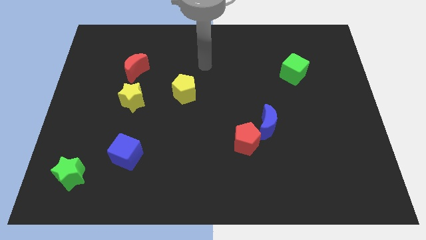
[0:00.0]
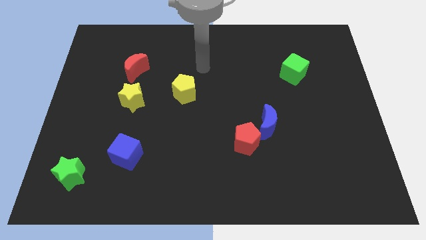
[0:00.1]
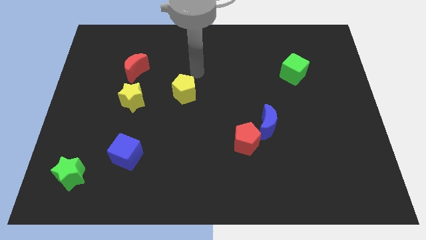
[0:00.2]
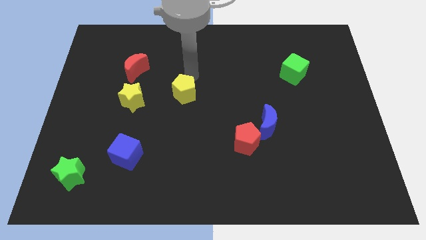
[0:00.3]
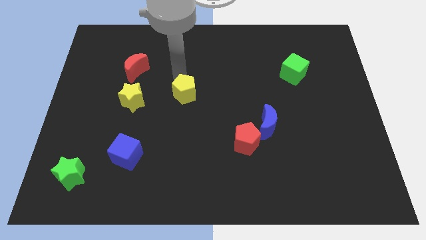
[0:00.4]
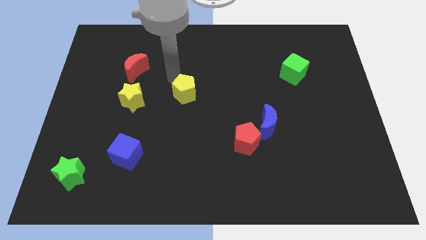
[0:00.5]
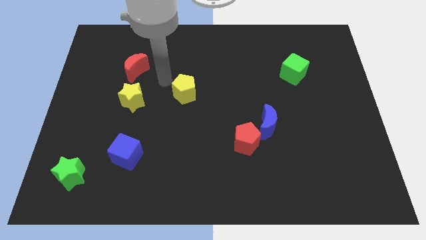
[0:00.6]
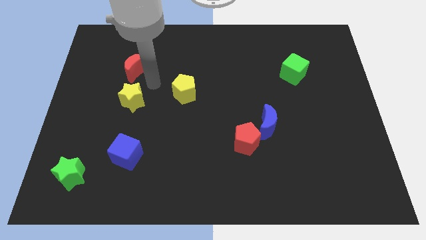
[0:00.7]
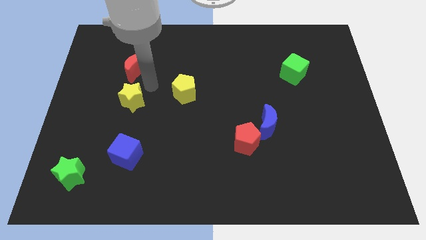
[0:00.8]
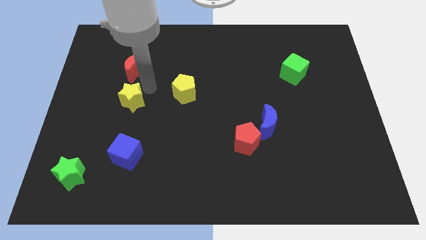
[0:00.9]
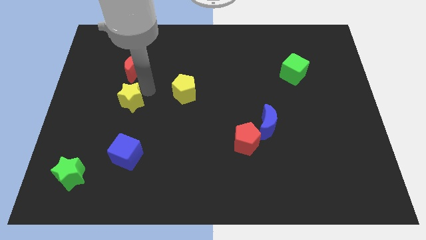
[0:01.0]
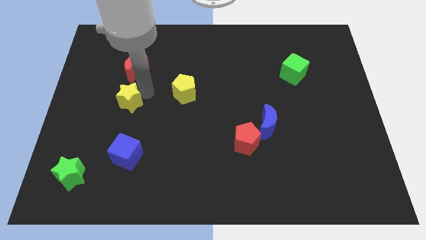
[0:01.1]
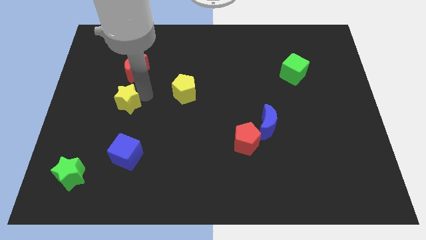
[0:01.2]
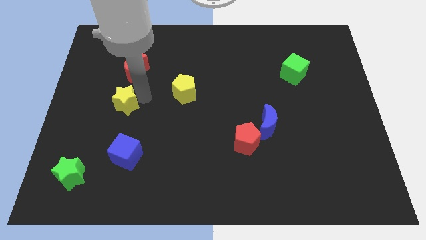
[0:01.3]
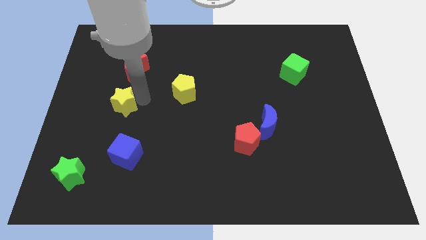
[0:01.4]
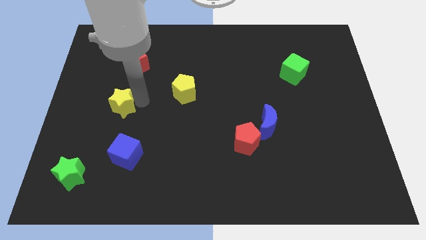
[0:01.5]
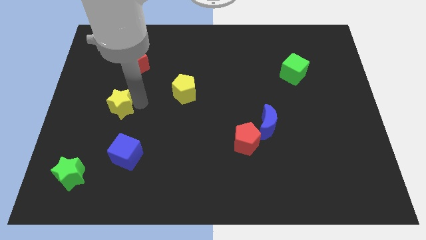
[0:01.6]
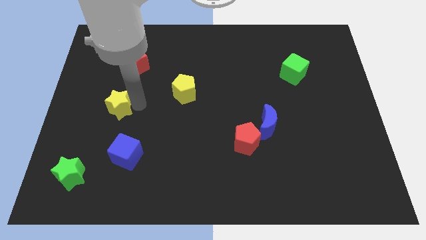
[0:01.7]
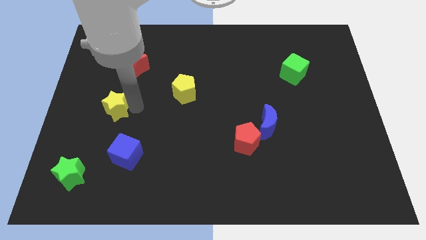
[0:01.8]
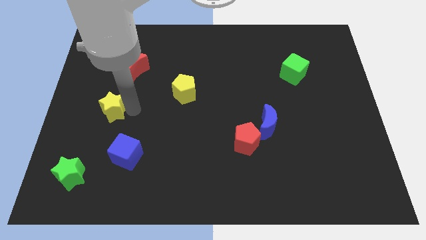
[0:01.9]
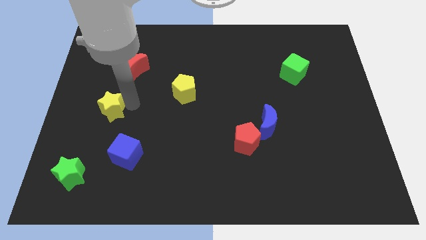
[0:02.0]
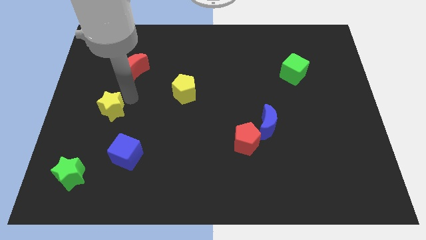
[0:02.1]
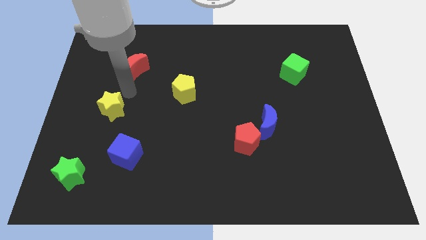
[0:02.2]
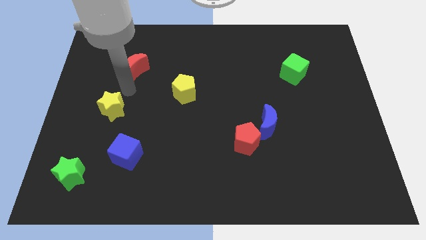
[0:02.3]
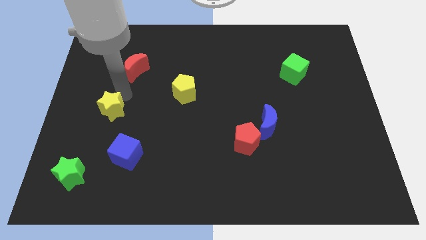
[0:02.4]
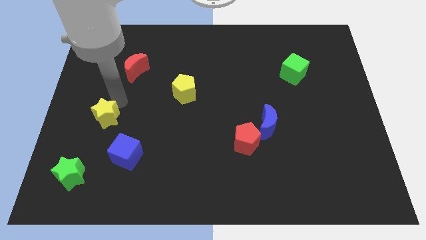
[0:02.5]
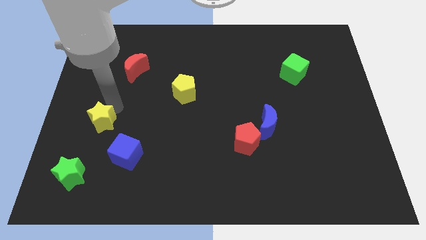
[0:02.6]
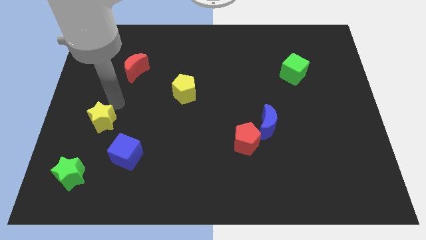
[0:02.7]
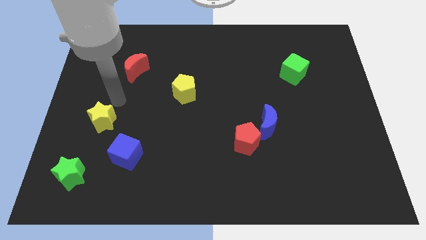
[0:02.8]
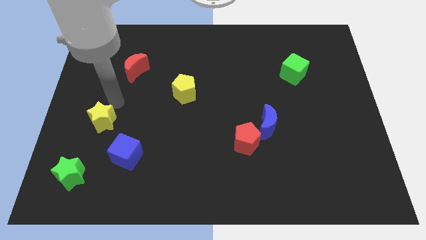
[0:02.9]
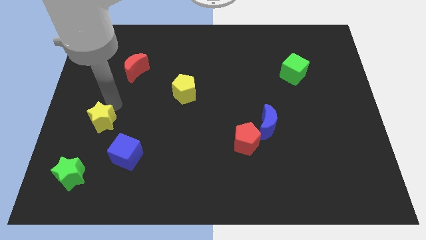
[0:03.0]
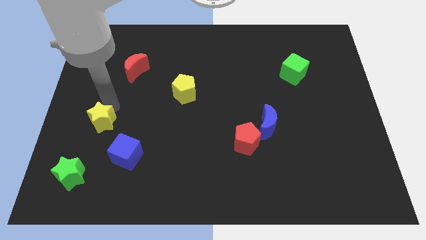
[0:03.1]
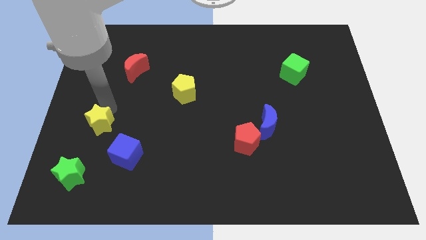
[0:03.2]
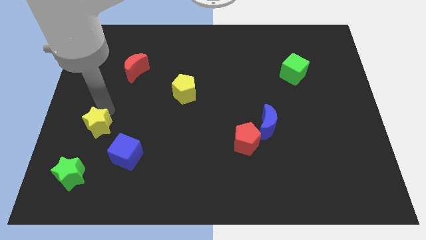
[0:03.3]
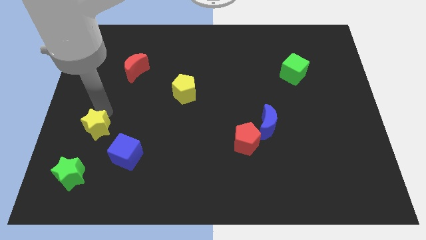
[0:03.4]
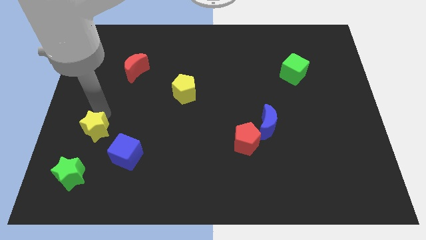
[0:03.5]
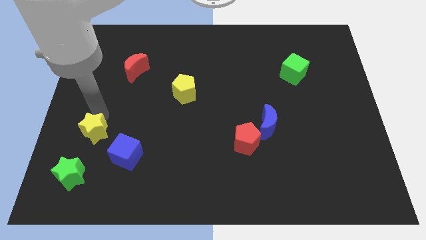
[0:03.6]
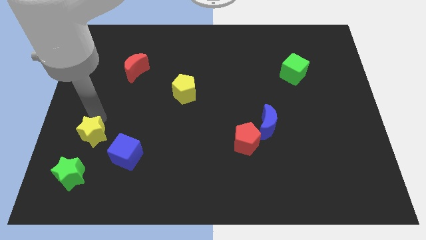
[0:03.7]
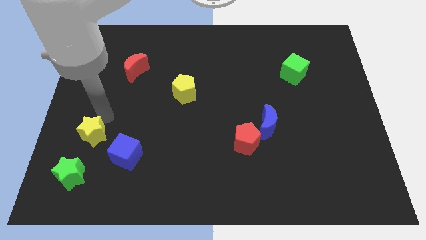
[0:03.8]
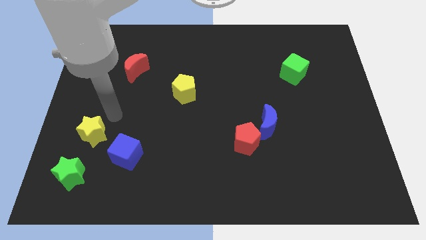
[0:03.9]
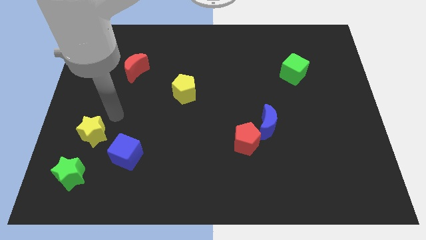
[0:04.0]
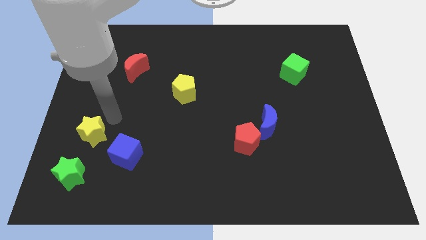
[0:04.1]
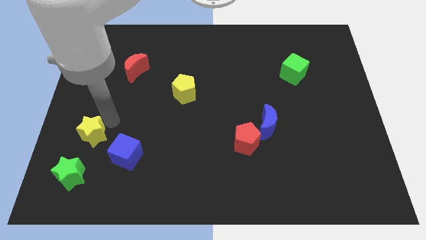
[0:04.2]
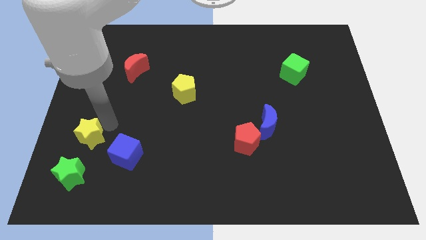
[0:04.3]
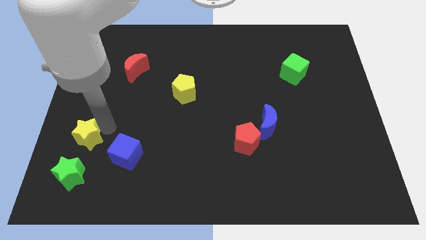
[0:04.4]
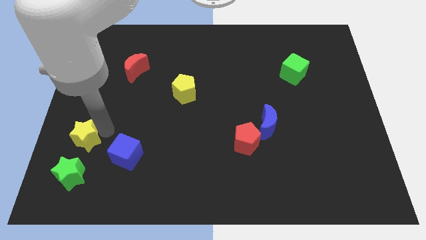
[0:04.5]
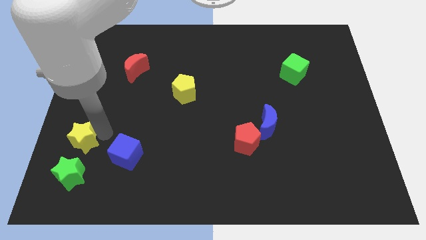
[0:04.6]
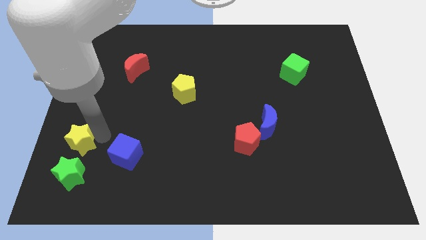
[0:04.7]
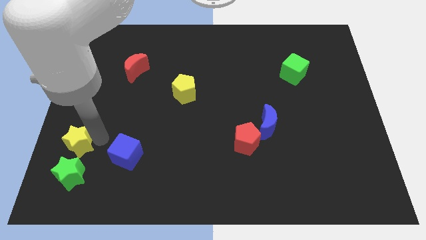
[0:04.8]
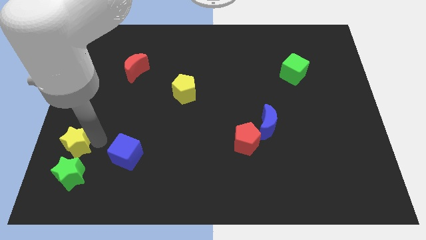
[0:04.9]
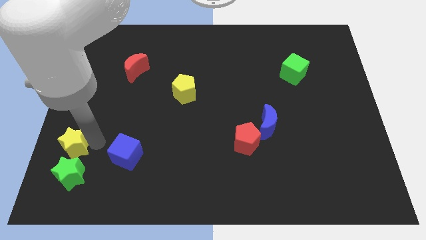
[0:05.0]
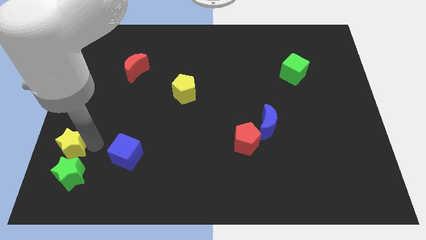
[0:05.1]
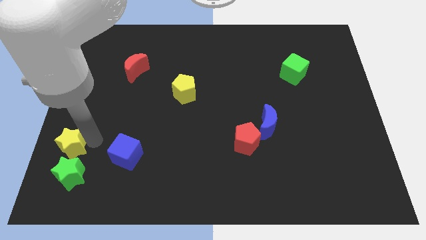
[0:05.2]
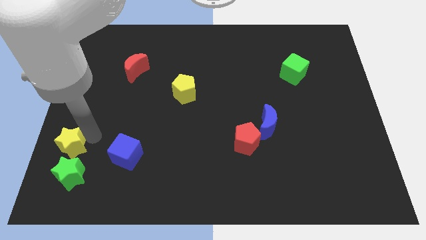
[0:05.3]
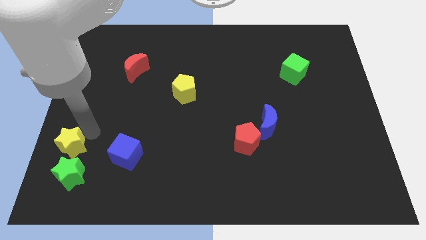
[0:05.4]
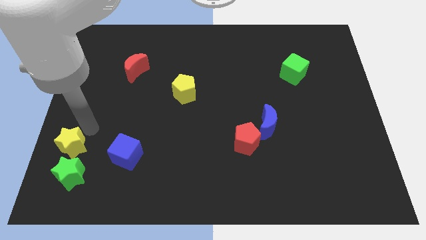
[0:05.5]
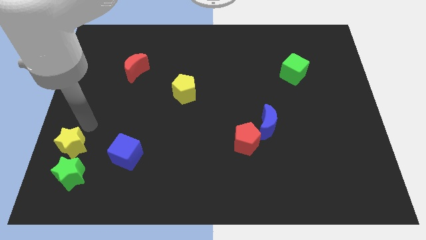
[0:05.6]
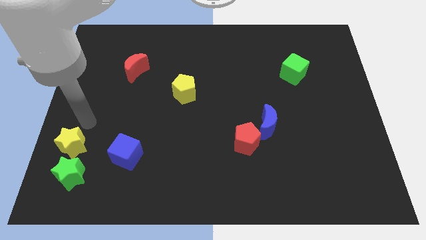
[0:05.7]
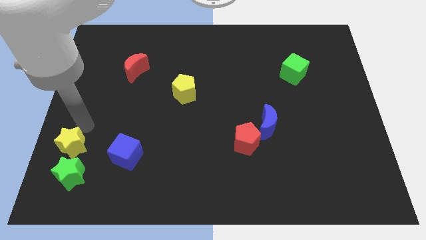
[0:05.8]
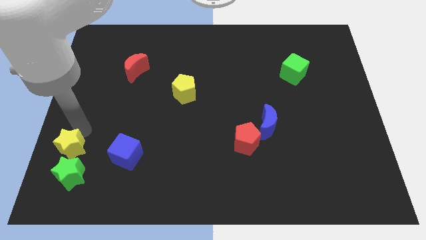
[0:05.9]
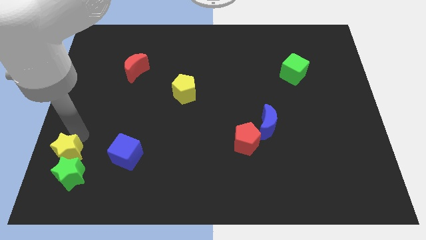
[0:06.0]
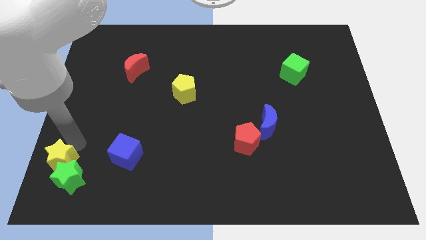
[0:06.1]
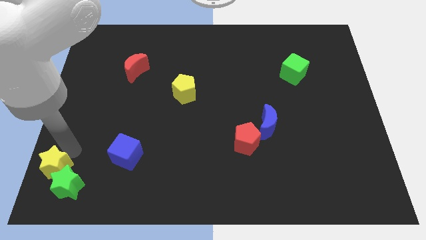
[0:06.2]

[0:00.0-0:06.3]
push the yellow star to the bottom left
